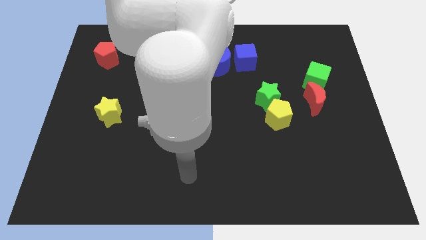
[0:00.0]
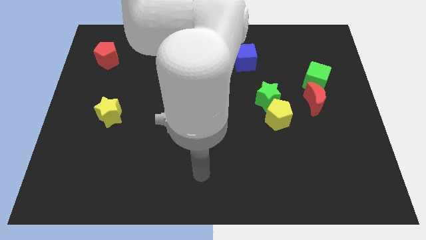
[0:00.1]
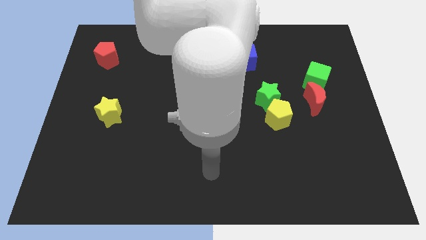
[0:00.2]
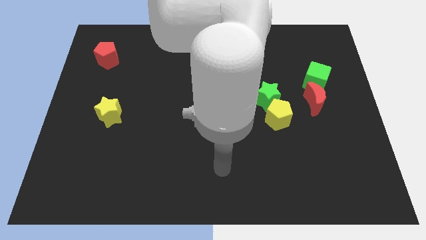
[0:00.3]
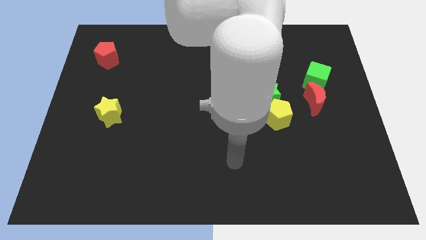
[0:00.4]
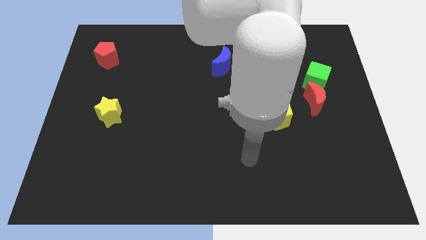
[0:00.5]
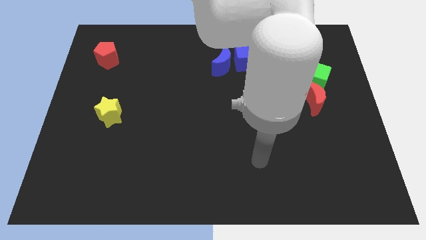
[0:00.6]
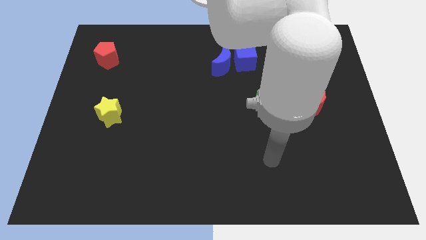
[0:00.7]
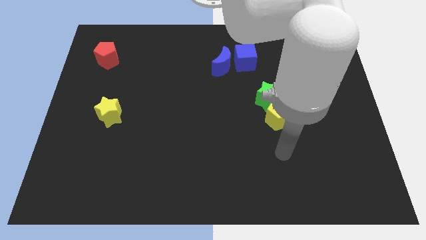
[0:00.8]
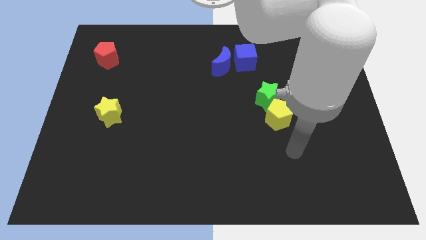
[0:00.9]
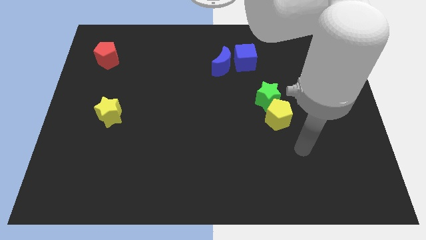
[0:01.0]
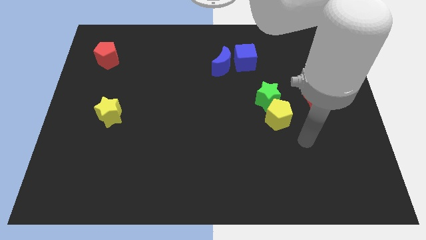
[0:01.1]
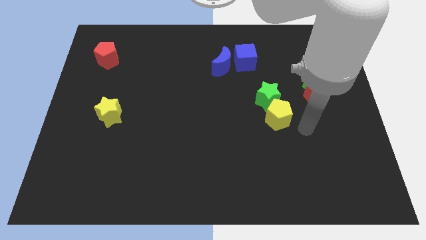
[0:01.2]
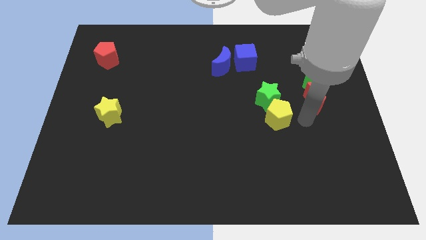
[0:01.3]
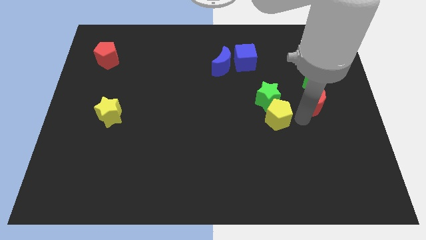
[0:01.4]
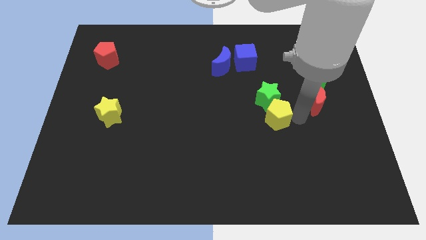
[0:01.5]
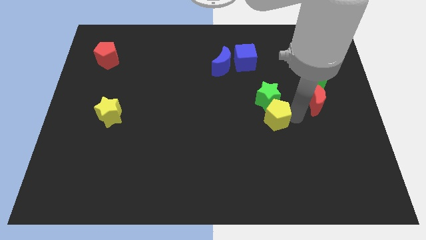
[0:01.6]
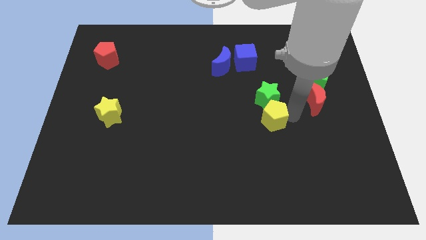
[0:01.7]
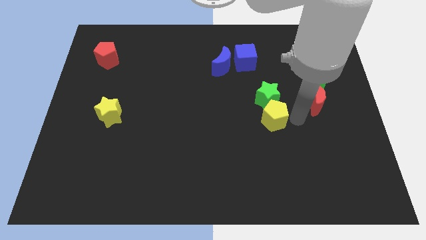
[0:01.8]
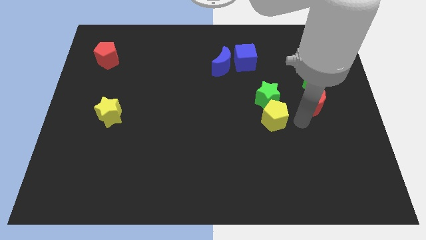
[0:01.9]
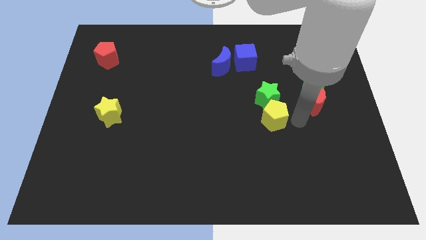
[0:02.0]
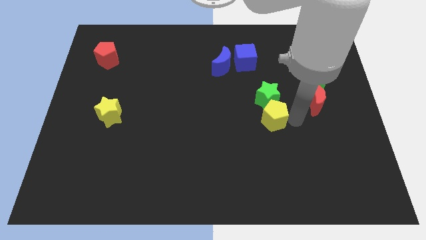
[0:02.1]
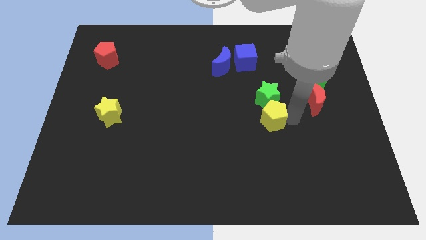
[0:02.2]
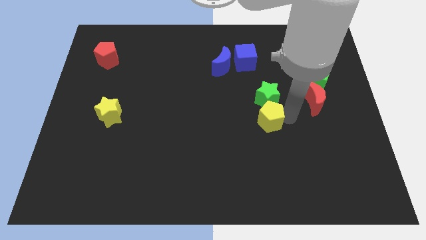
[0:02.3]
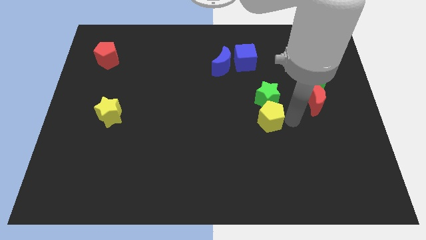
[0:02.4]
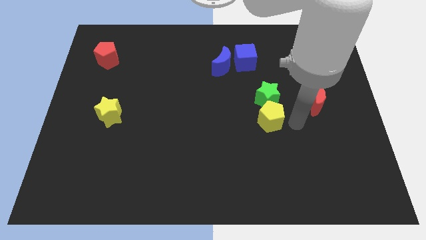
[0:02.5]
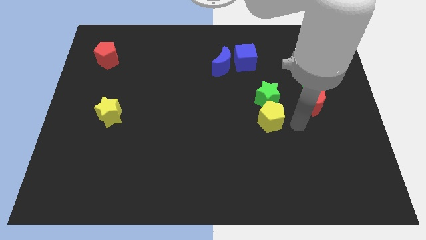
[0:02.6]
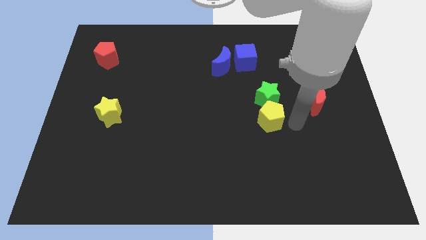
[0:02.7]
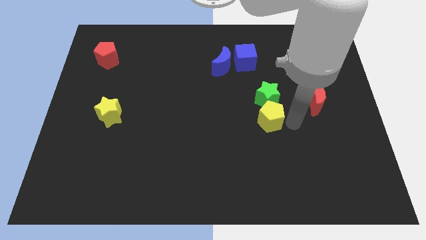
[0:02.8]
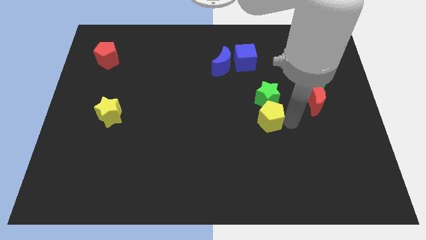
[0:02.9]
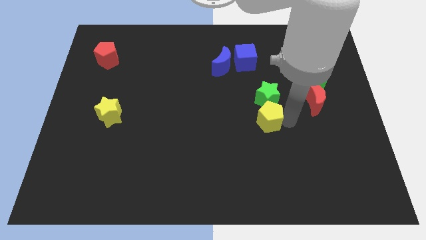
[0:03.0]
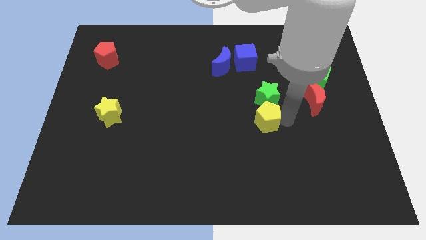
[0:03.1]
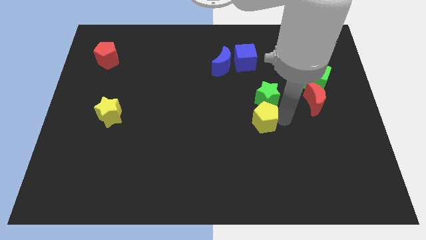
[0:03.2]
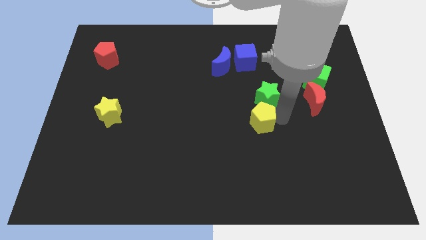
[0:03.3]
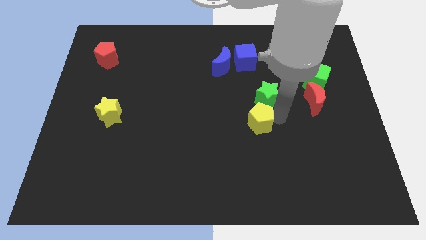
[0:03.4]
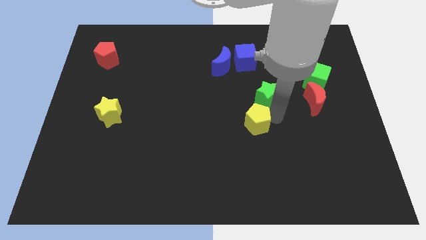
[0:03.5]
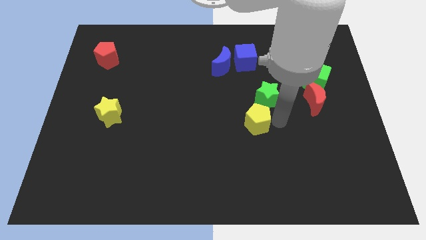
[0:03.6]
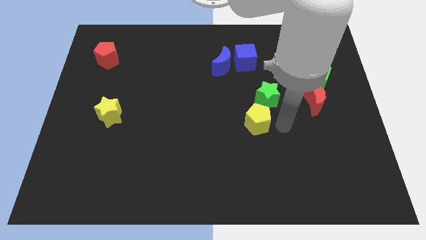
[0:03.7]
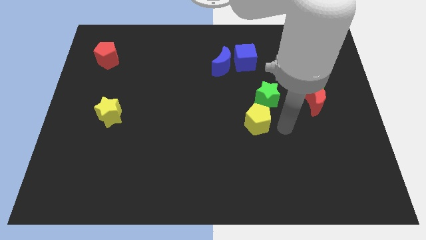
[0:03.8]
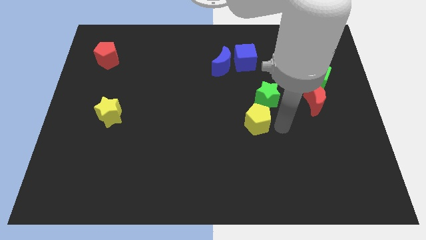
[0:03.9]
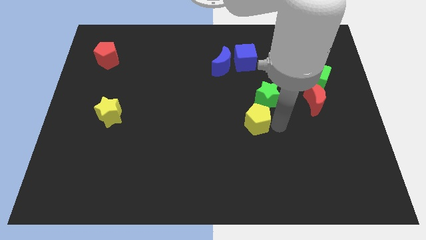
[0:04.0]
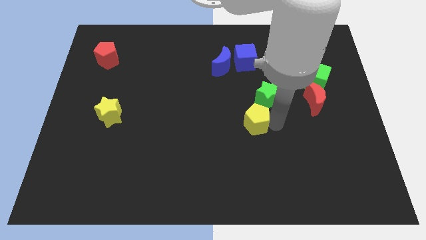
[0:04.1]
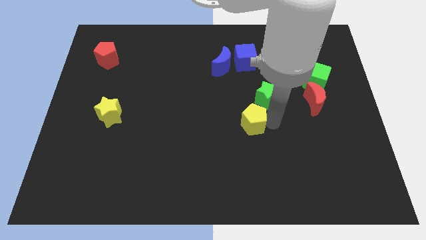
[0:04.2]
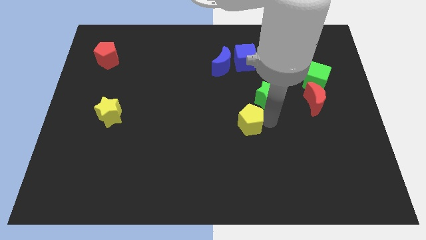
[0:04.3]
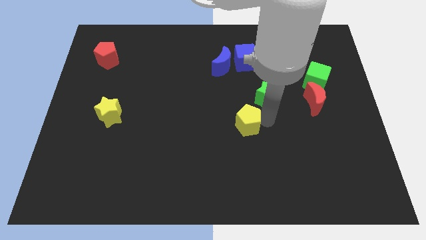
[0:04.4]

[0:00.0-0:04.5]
move the yellow pentagon a little bit left

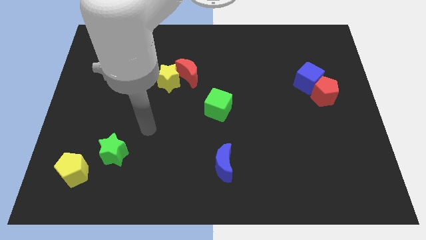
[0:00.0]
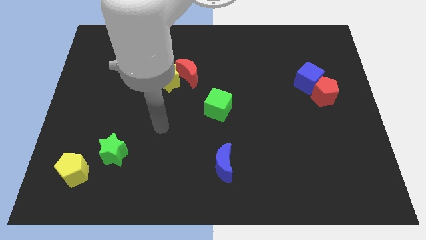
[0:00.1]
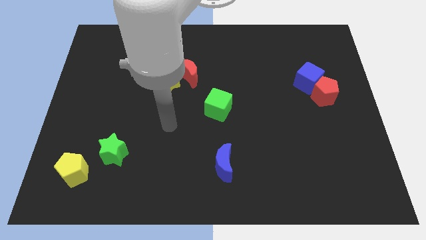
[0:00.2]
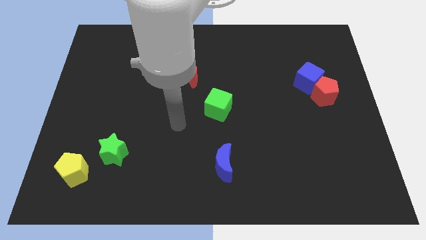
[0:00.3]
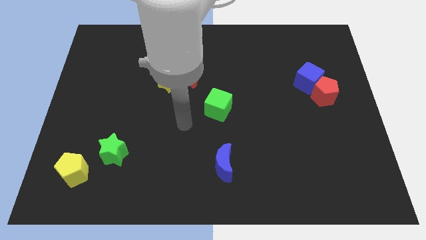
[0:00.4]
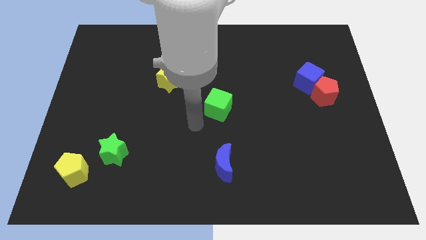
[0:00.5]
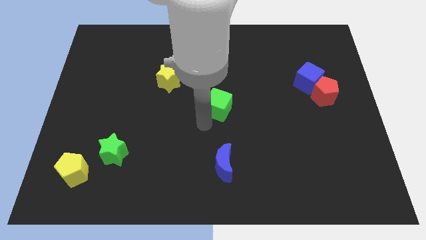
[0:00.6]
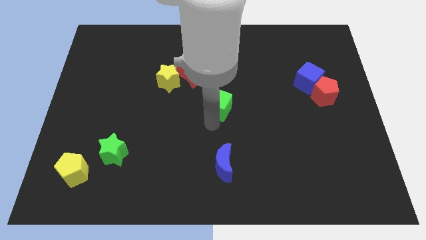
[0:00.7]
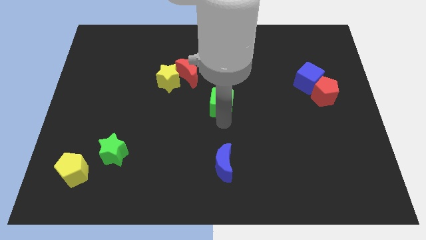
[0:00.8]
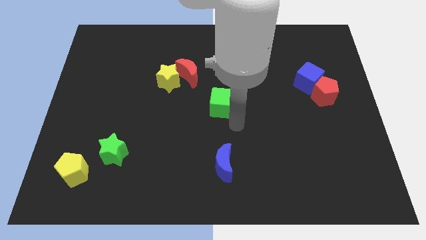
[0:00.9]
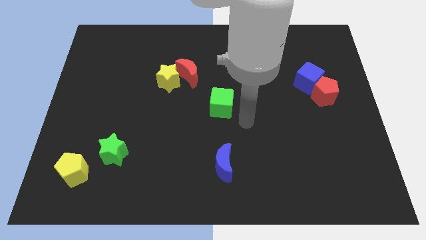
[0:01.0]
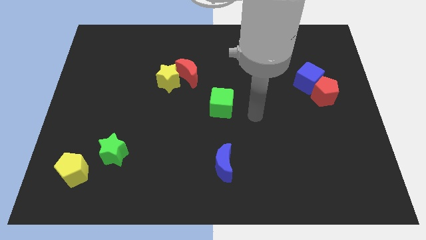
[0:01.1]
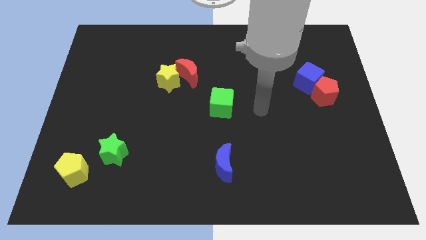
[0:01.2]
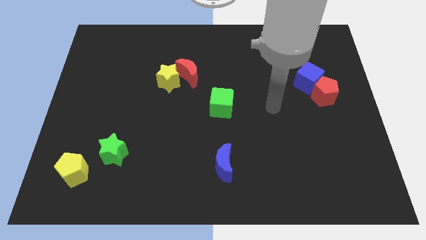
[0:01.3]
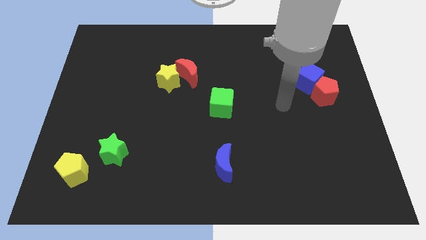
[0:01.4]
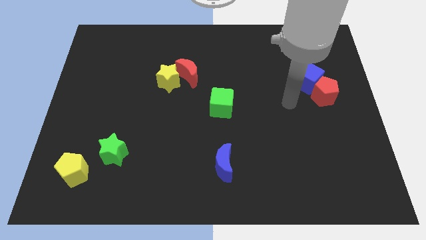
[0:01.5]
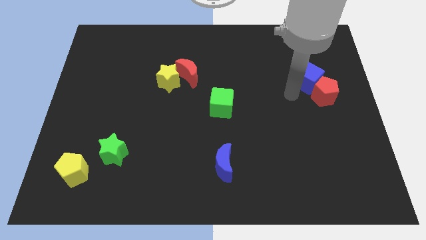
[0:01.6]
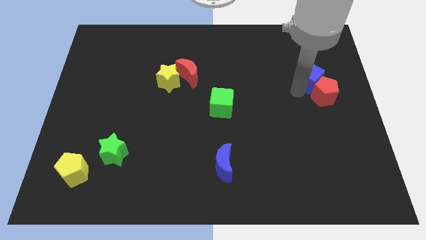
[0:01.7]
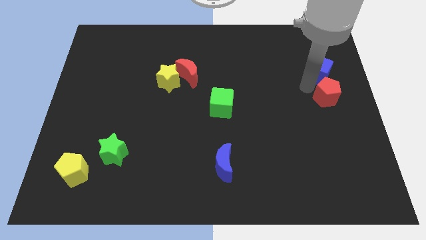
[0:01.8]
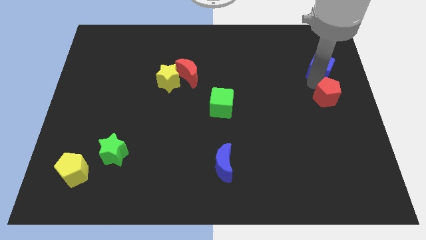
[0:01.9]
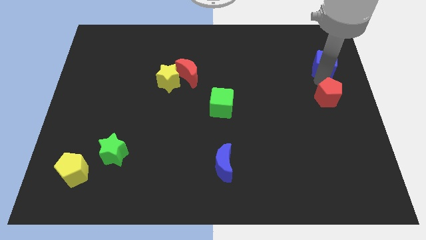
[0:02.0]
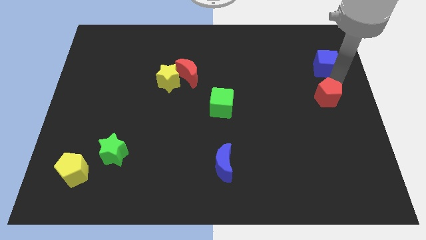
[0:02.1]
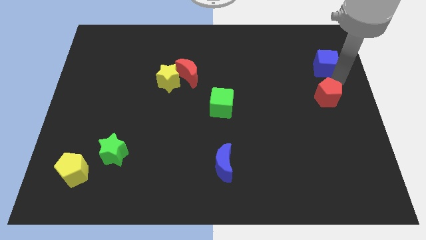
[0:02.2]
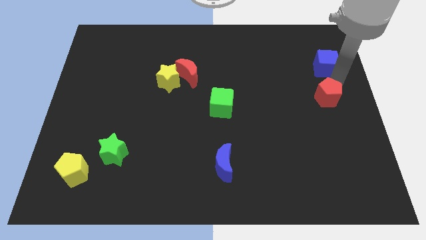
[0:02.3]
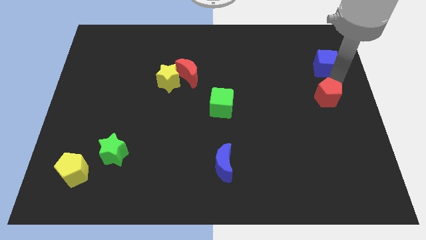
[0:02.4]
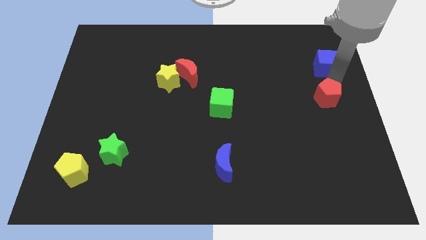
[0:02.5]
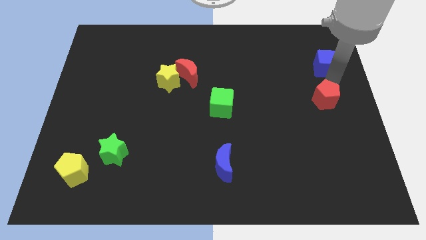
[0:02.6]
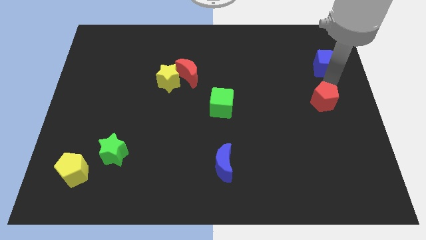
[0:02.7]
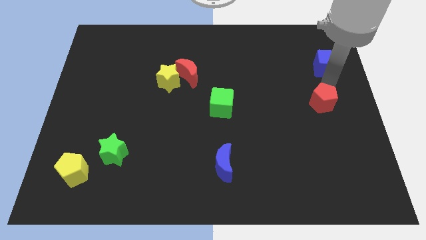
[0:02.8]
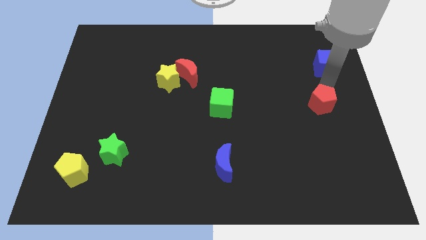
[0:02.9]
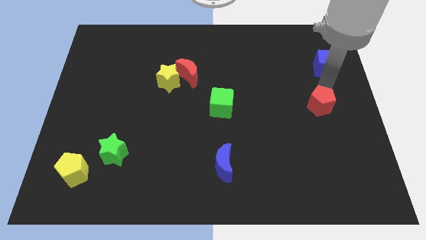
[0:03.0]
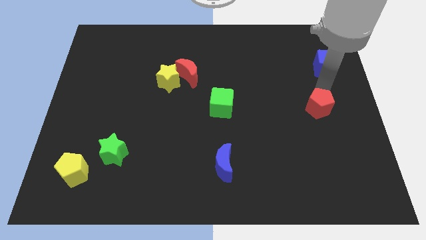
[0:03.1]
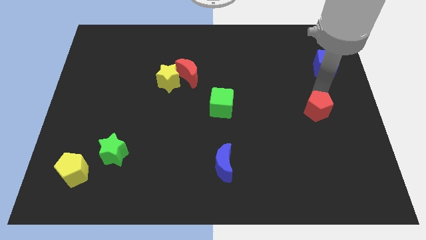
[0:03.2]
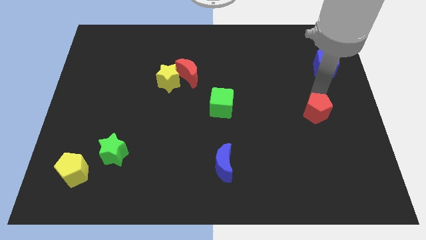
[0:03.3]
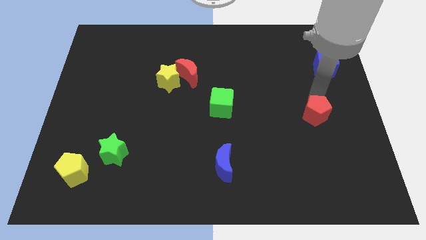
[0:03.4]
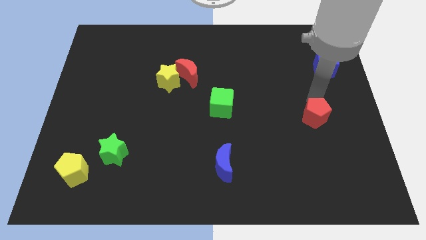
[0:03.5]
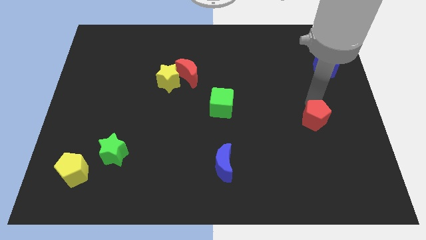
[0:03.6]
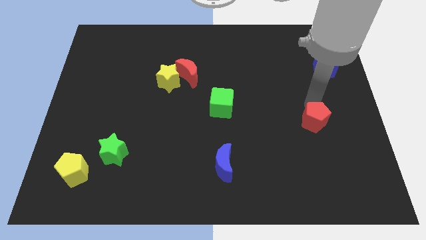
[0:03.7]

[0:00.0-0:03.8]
push the red pentagon downwards somewhat
